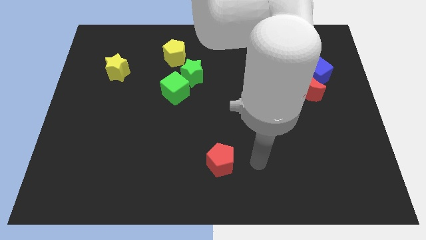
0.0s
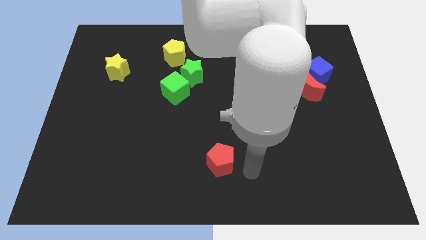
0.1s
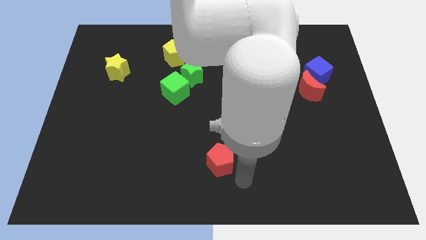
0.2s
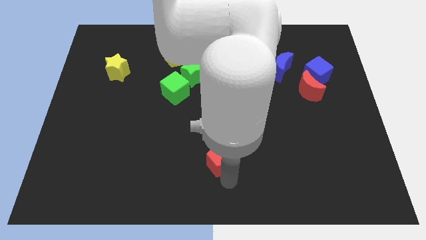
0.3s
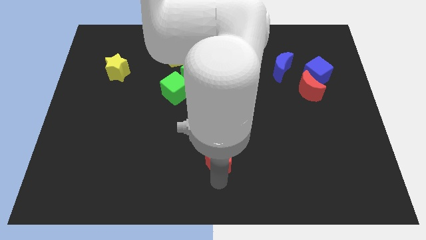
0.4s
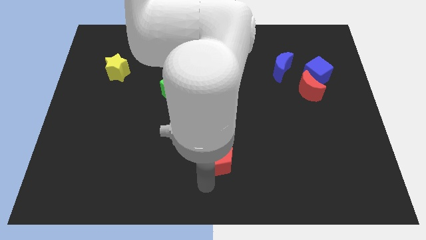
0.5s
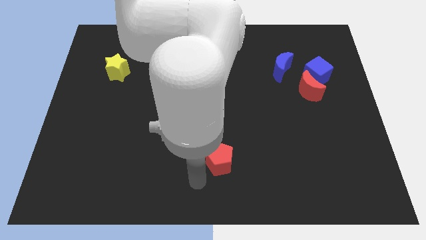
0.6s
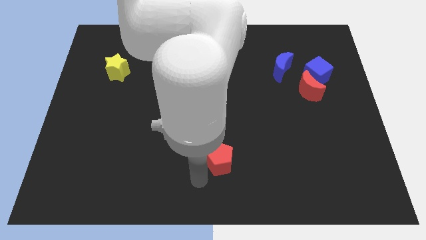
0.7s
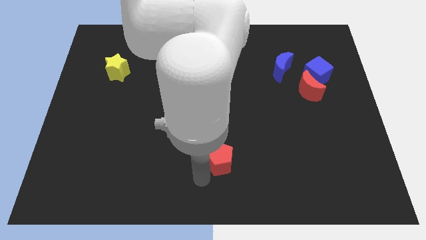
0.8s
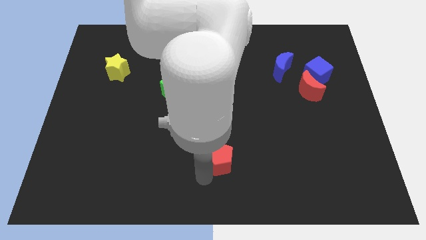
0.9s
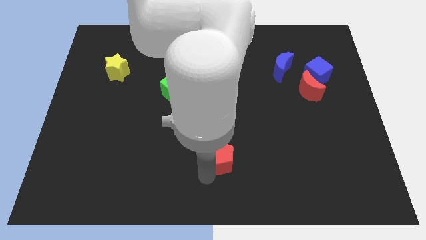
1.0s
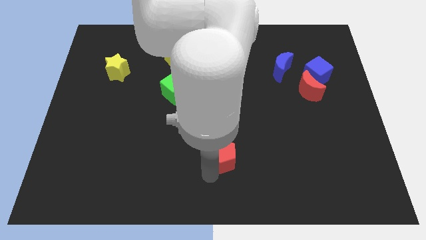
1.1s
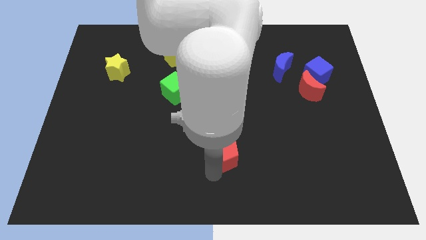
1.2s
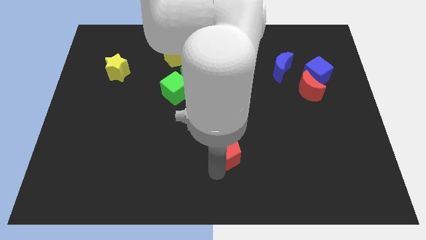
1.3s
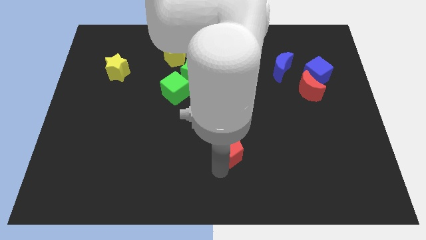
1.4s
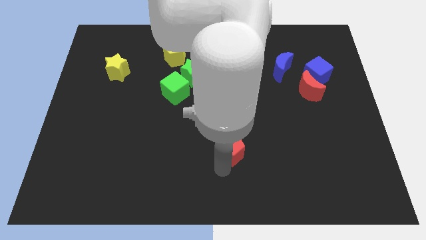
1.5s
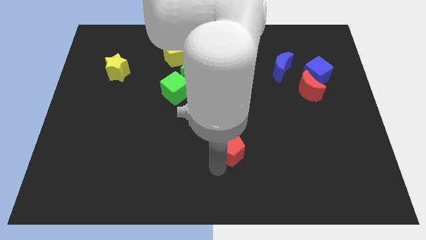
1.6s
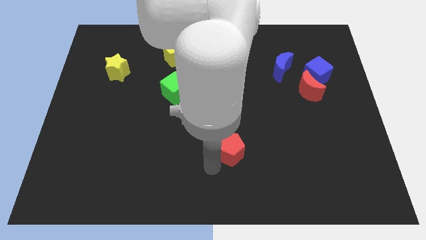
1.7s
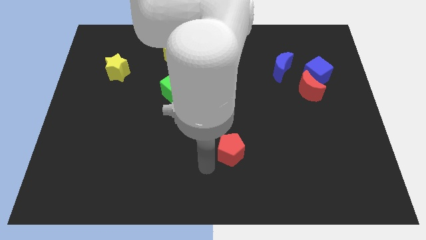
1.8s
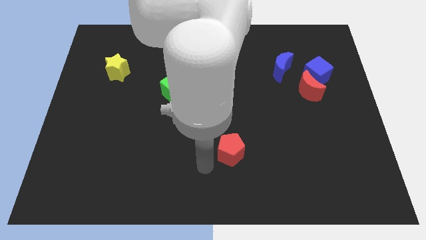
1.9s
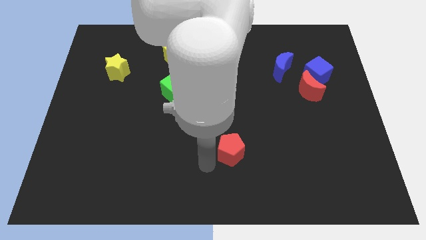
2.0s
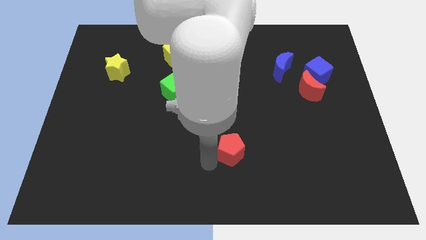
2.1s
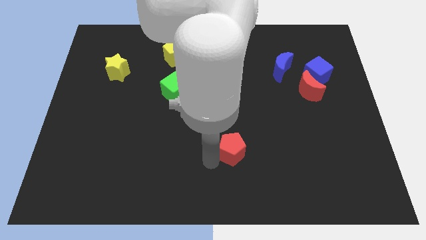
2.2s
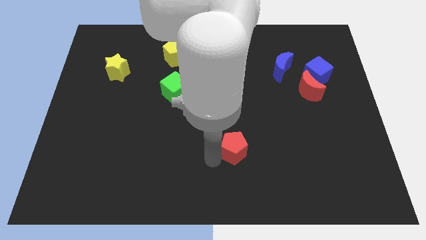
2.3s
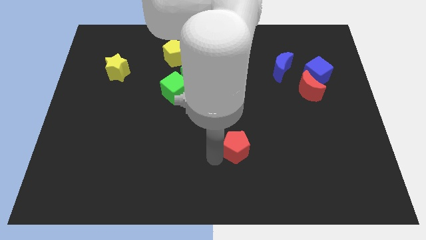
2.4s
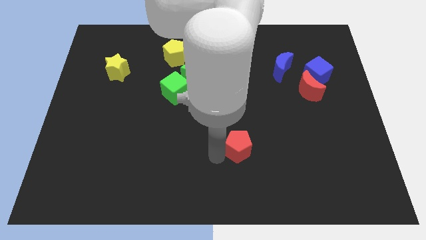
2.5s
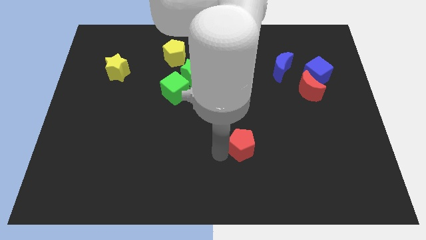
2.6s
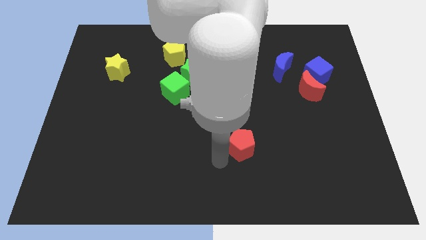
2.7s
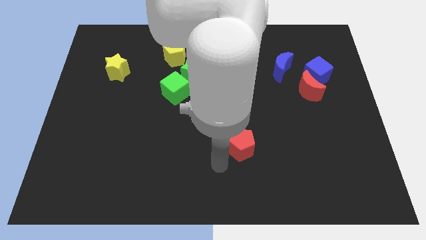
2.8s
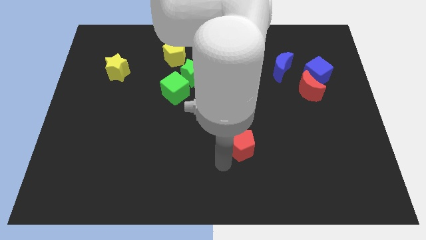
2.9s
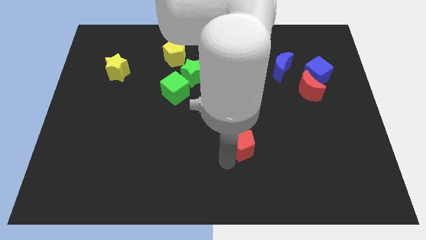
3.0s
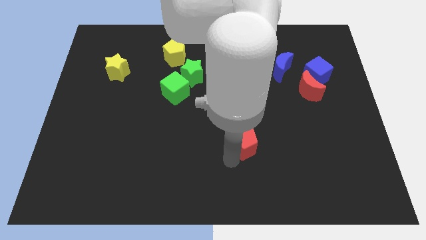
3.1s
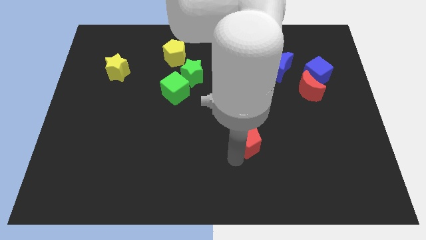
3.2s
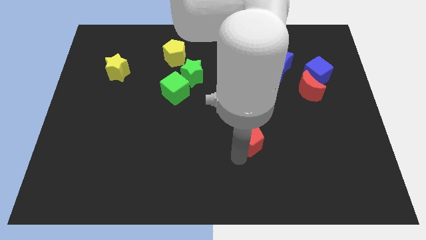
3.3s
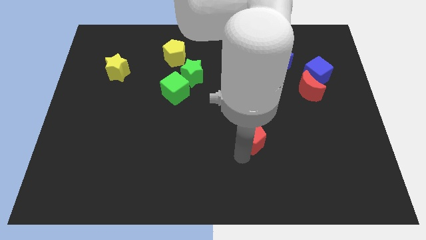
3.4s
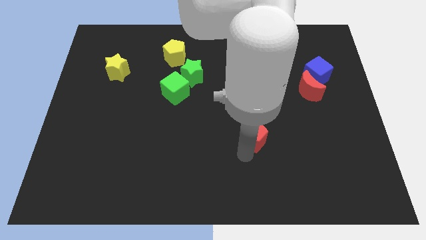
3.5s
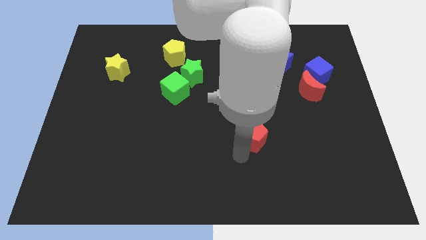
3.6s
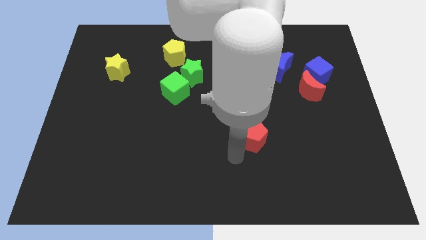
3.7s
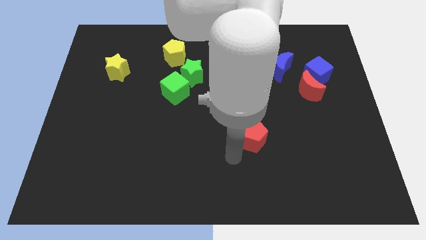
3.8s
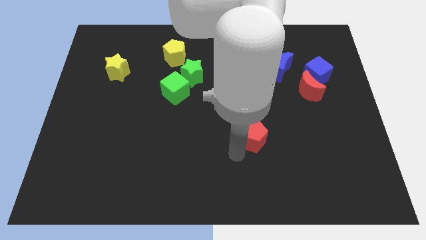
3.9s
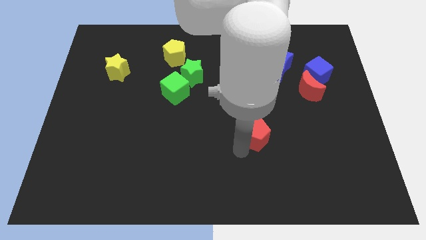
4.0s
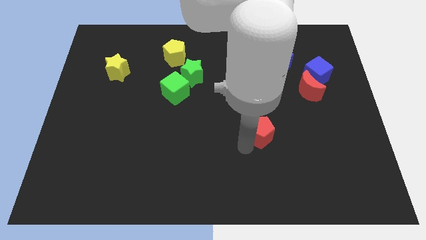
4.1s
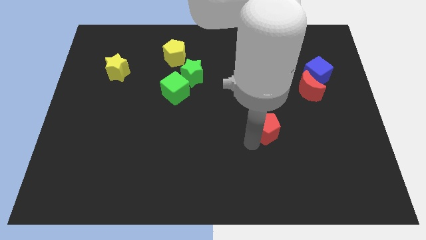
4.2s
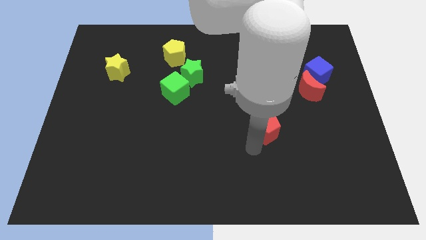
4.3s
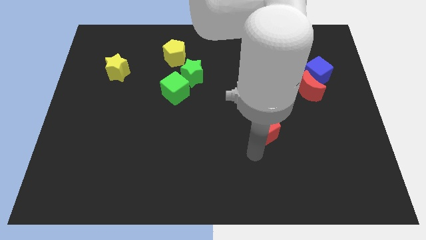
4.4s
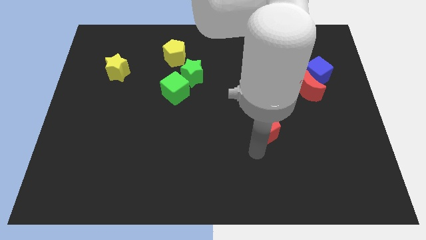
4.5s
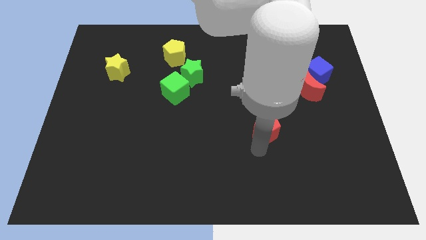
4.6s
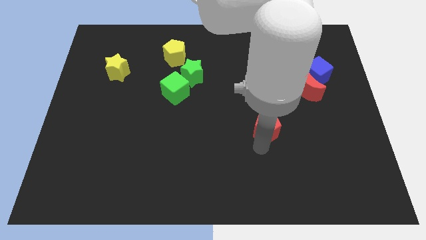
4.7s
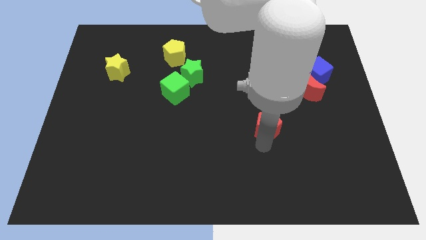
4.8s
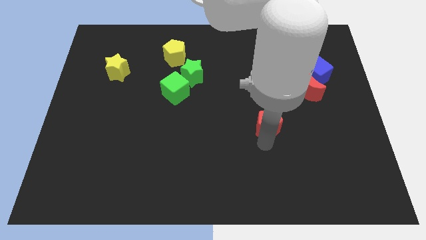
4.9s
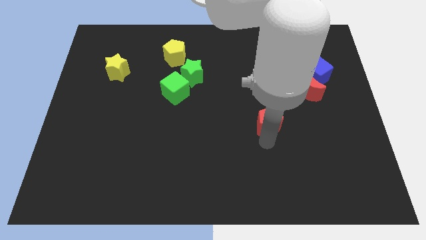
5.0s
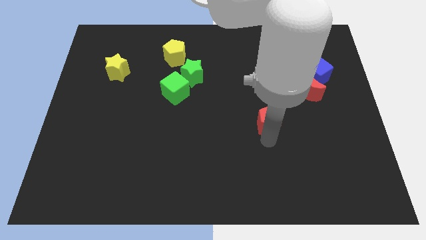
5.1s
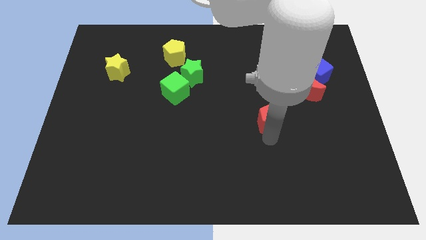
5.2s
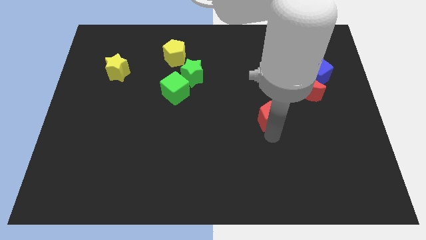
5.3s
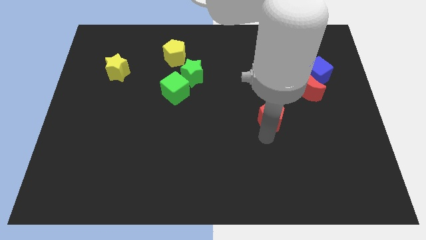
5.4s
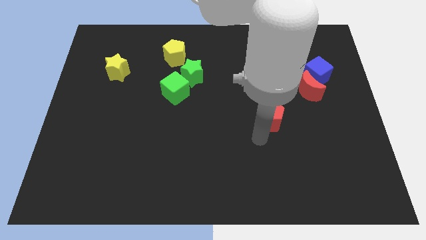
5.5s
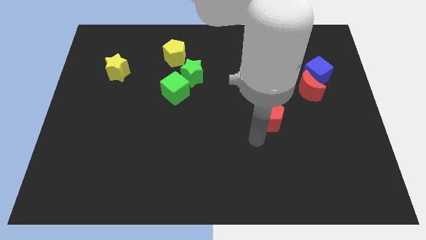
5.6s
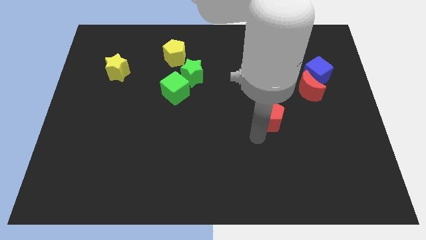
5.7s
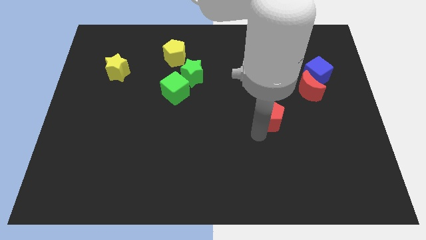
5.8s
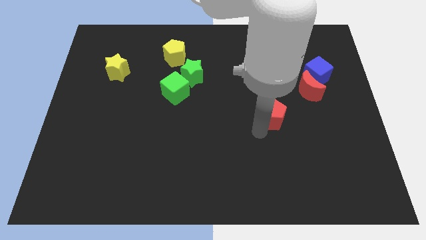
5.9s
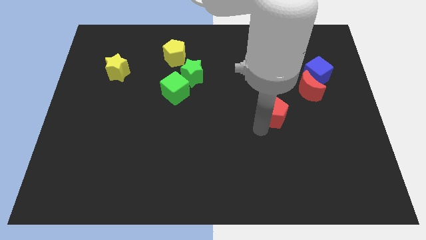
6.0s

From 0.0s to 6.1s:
move the red pentagon below the blue moon
